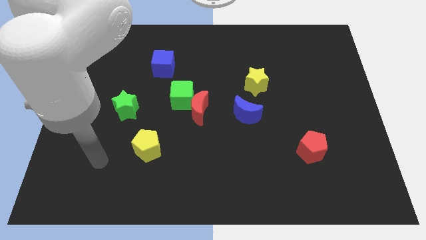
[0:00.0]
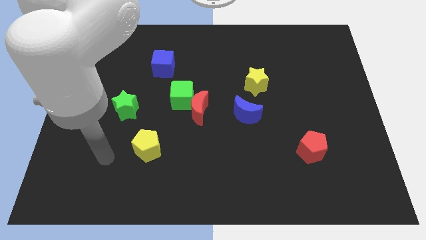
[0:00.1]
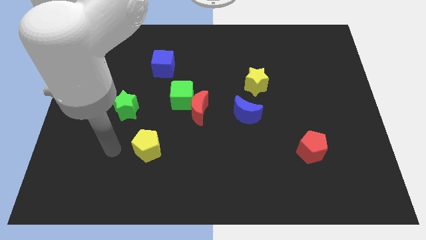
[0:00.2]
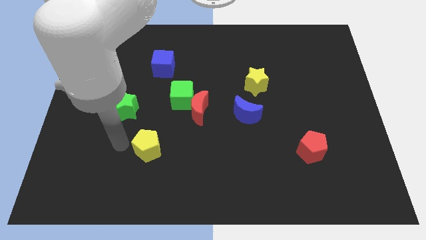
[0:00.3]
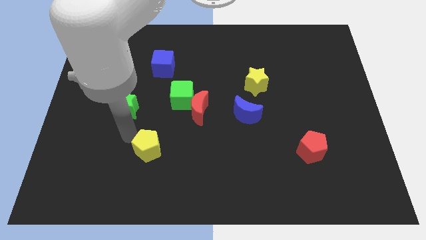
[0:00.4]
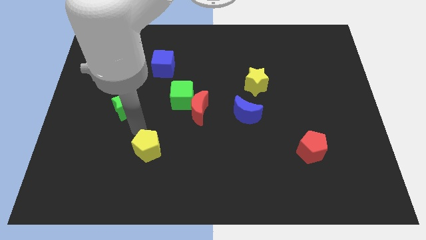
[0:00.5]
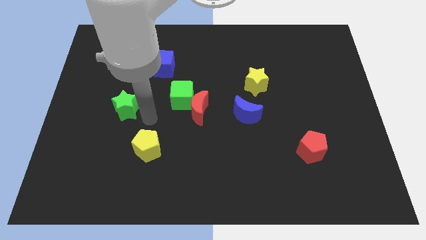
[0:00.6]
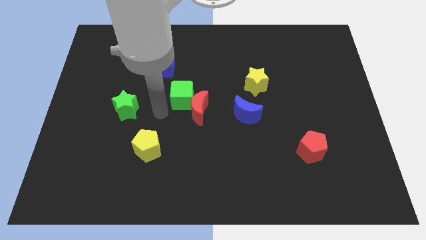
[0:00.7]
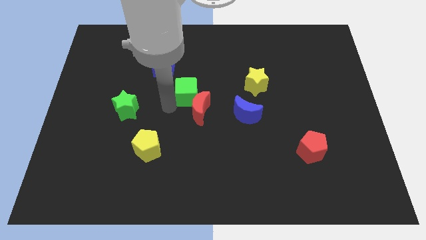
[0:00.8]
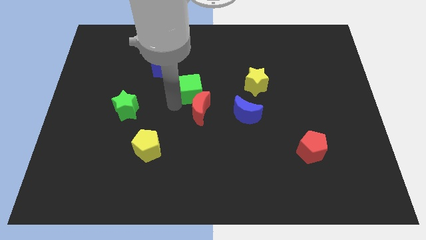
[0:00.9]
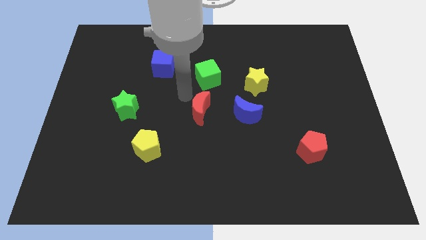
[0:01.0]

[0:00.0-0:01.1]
separate the red moon from the green cube

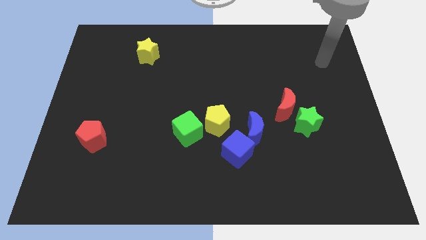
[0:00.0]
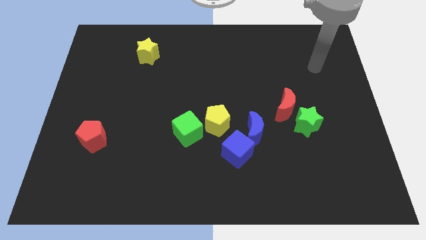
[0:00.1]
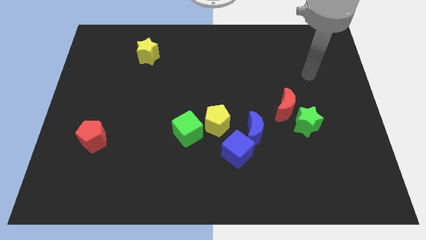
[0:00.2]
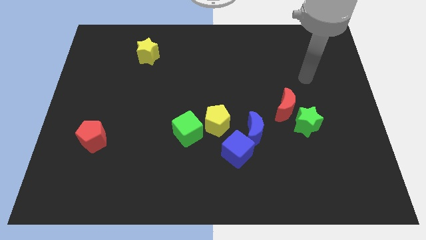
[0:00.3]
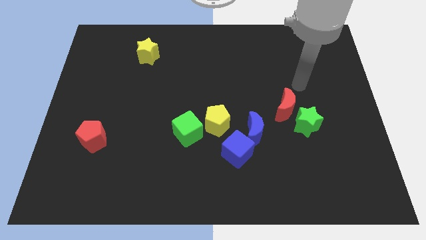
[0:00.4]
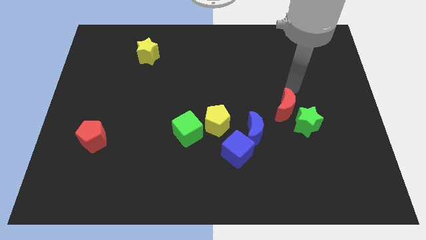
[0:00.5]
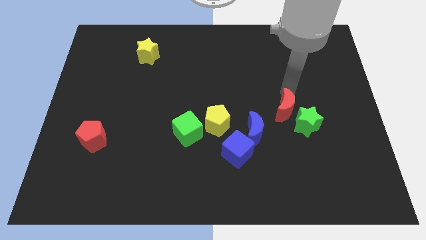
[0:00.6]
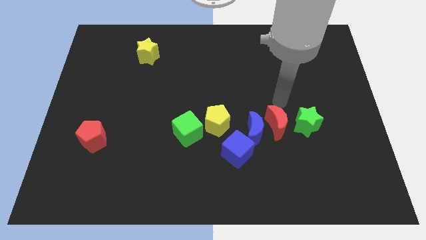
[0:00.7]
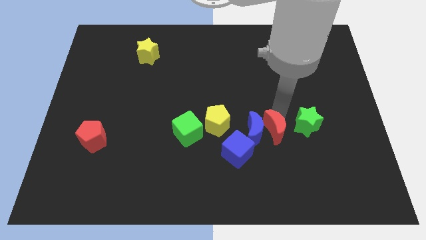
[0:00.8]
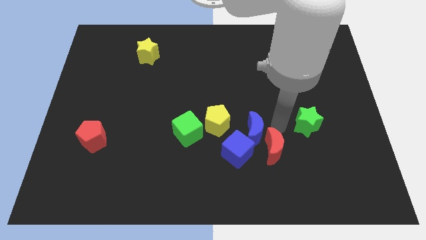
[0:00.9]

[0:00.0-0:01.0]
separate the green star from the red moon

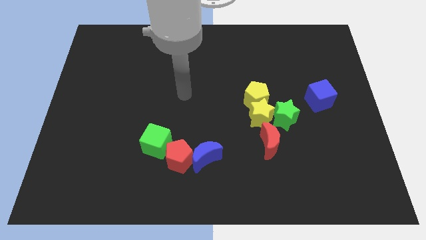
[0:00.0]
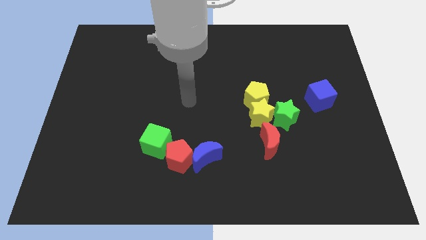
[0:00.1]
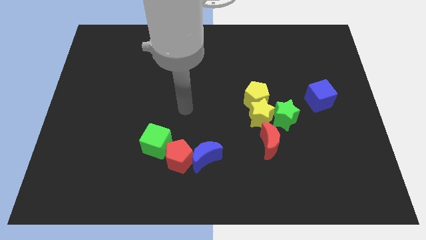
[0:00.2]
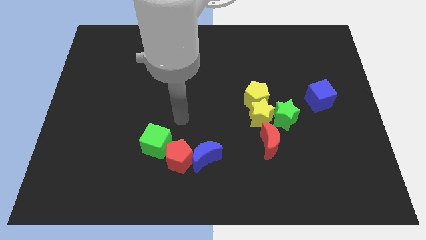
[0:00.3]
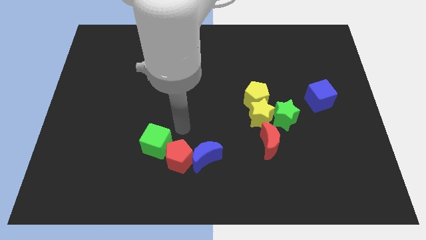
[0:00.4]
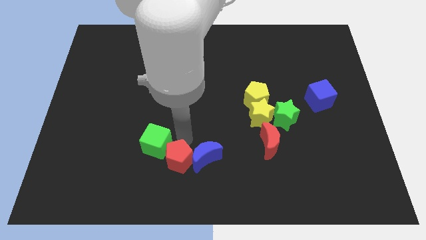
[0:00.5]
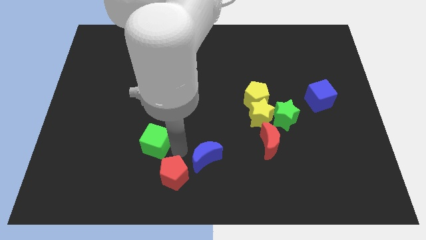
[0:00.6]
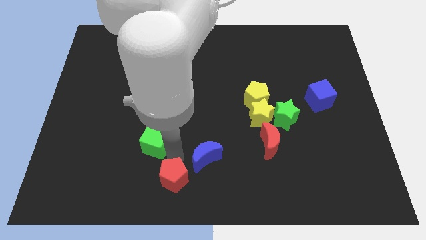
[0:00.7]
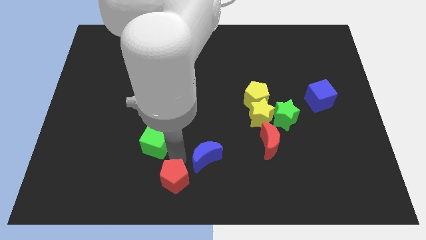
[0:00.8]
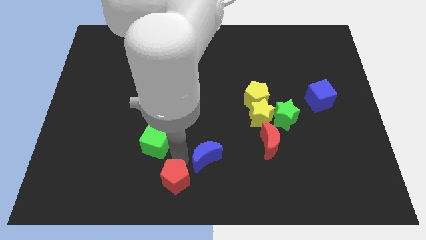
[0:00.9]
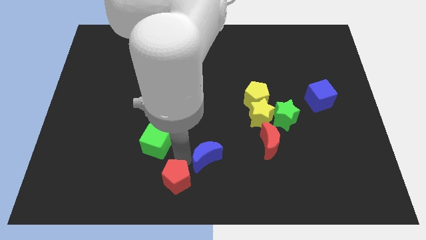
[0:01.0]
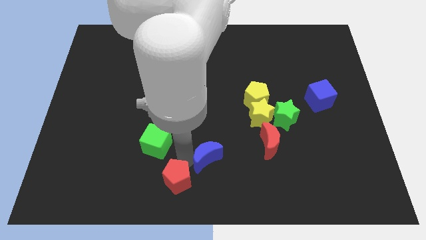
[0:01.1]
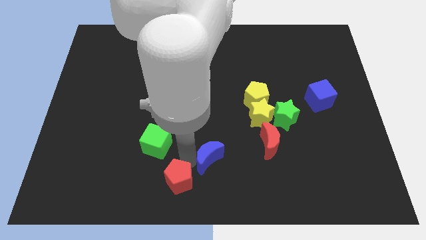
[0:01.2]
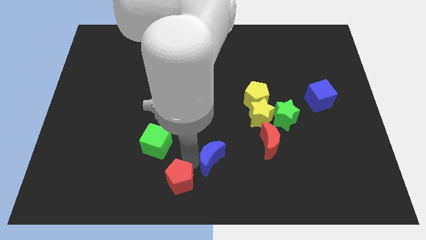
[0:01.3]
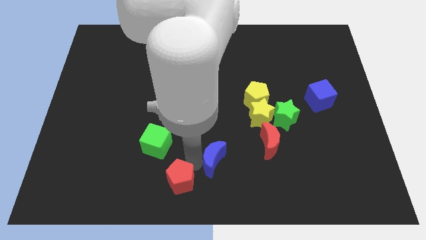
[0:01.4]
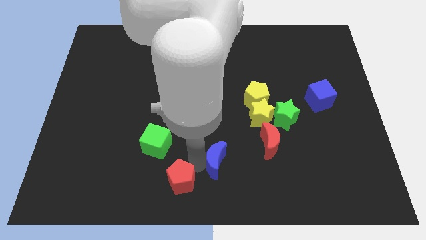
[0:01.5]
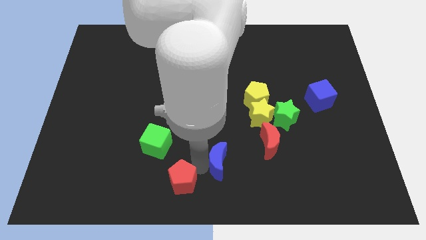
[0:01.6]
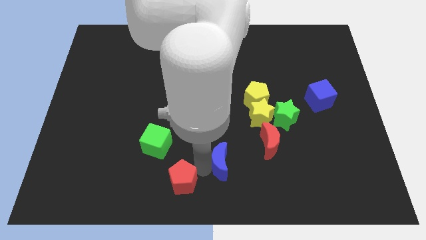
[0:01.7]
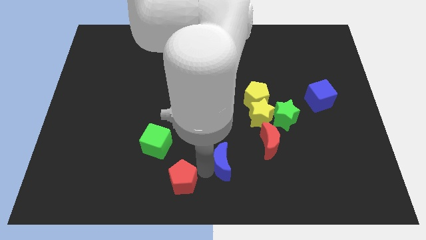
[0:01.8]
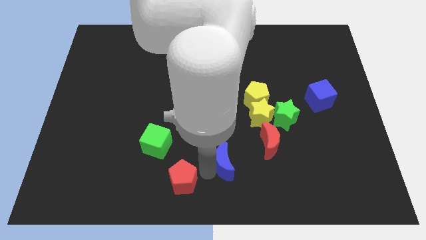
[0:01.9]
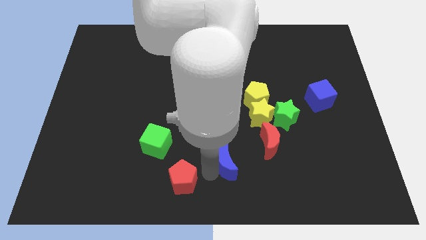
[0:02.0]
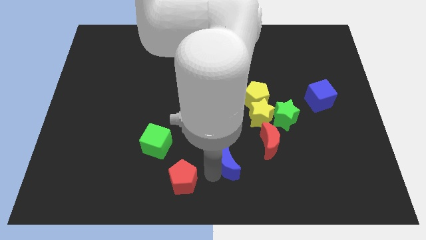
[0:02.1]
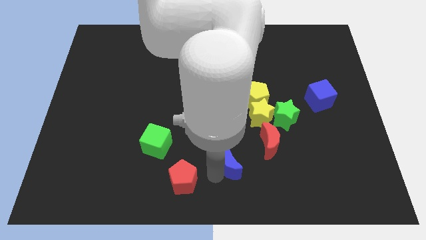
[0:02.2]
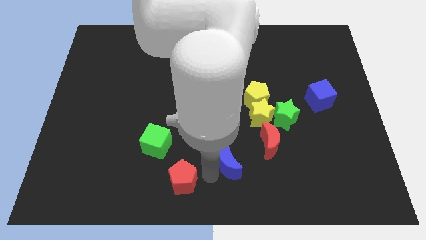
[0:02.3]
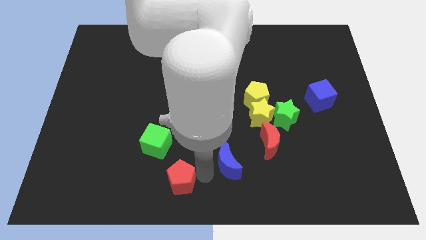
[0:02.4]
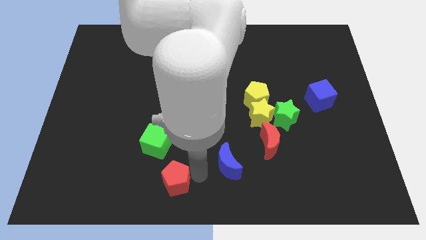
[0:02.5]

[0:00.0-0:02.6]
pull the blue moon apart from the red pentagon

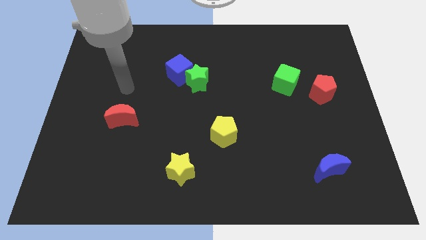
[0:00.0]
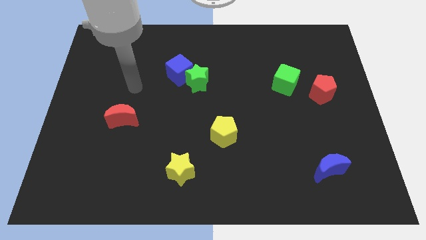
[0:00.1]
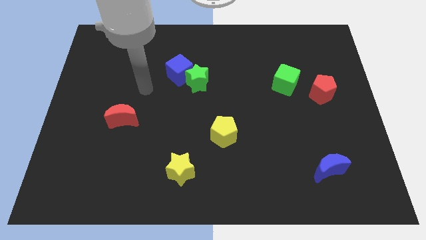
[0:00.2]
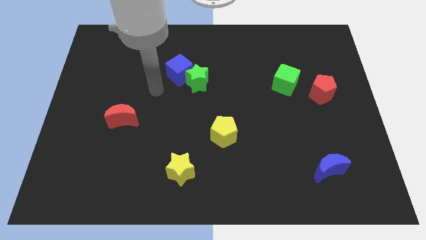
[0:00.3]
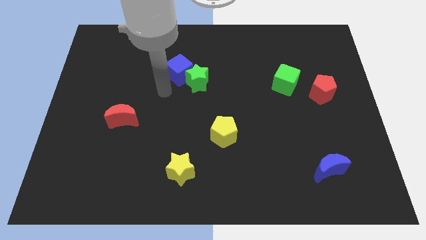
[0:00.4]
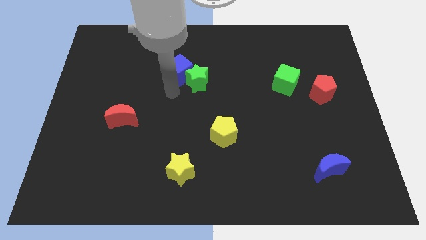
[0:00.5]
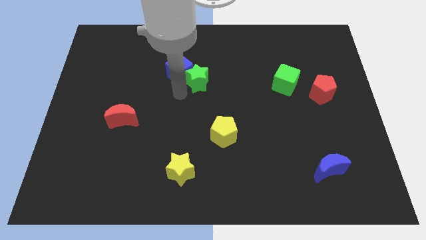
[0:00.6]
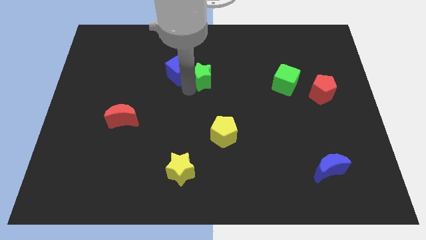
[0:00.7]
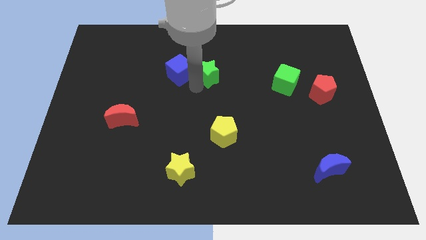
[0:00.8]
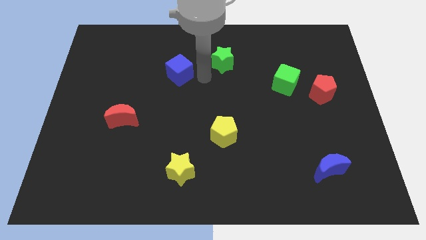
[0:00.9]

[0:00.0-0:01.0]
move the blue cube away from the green star

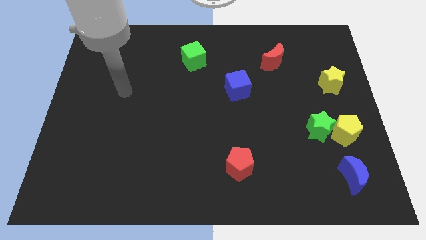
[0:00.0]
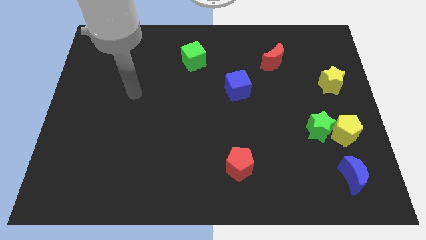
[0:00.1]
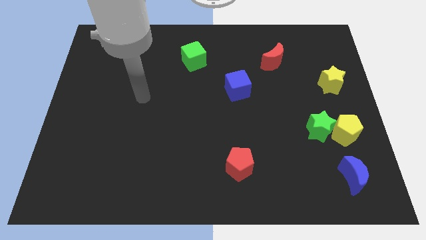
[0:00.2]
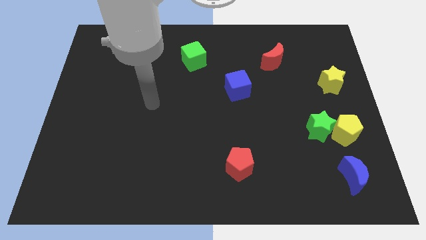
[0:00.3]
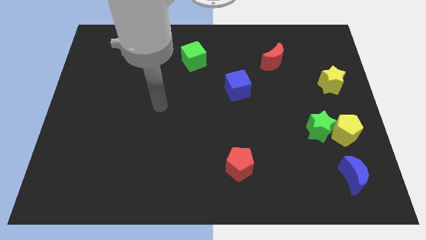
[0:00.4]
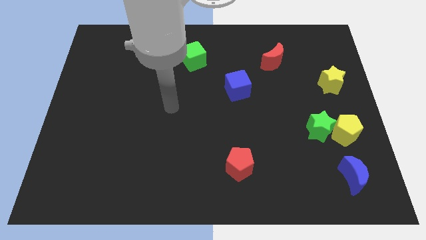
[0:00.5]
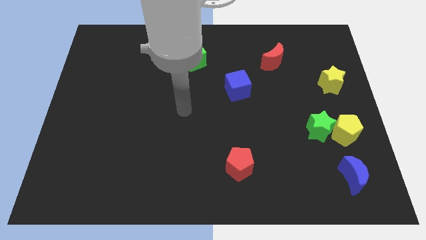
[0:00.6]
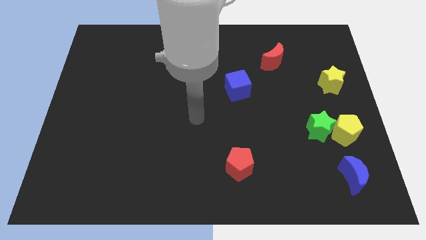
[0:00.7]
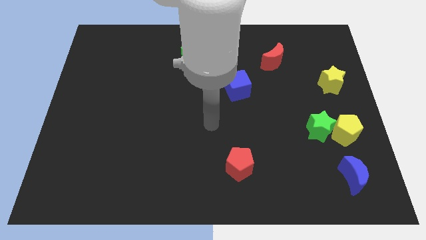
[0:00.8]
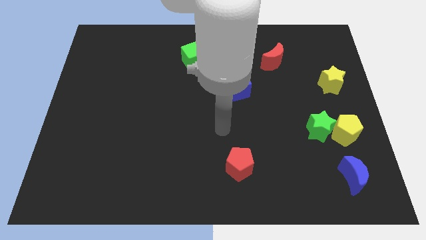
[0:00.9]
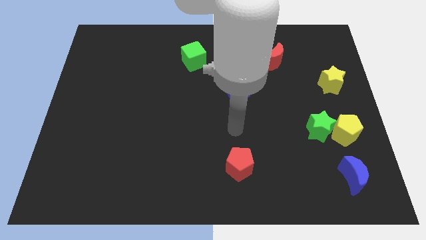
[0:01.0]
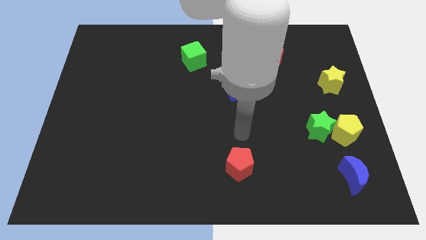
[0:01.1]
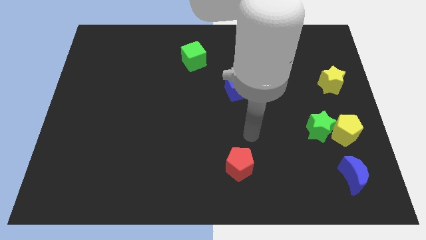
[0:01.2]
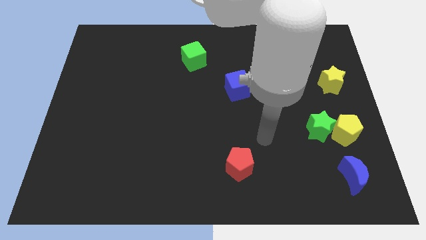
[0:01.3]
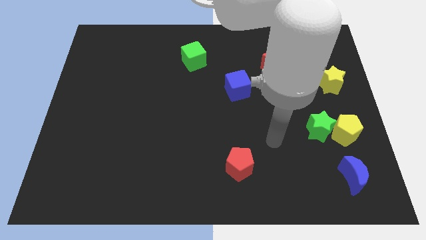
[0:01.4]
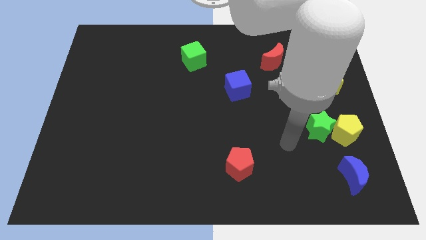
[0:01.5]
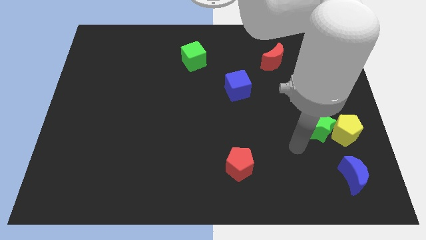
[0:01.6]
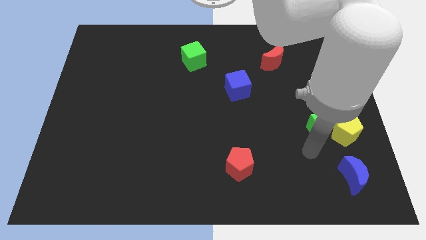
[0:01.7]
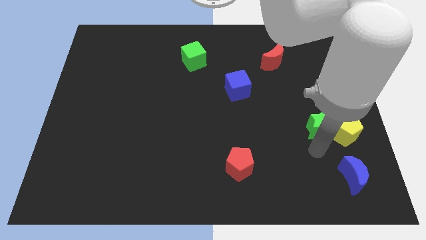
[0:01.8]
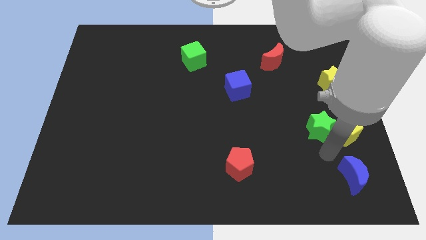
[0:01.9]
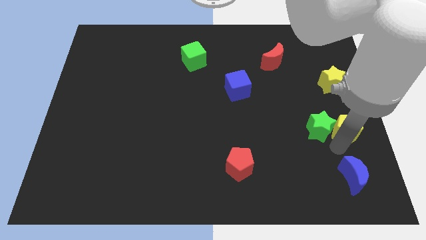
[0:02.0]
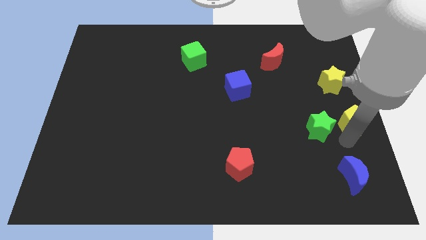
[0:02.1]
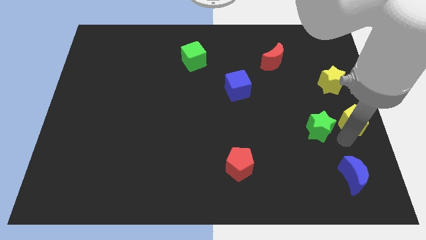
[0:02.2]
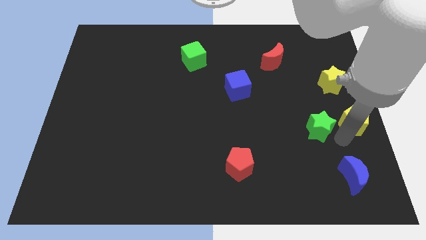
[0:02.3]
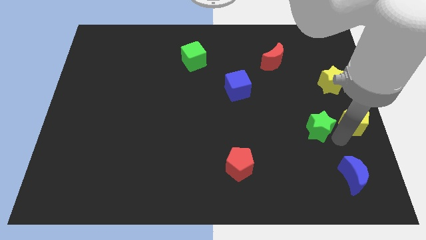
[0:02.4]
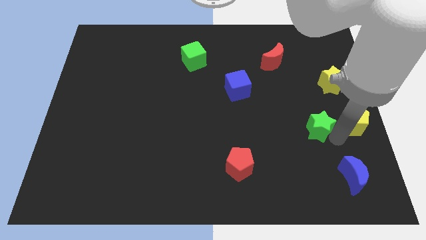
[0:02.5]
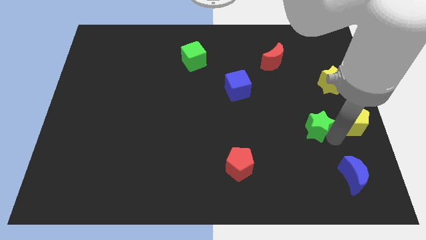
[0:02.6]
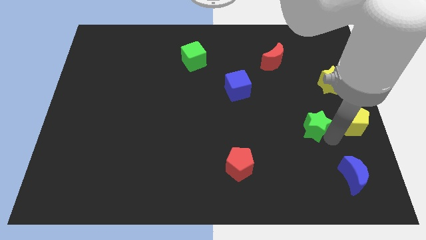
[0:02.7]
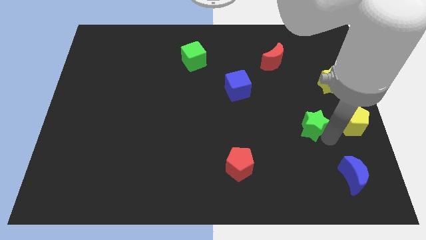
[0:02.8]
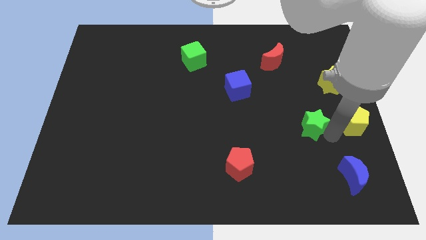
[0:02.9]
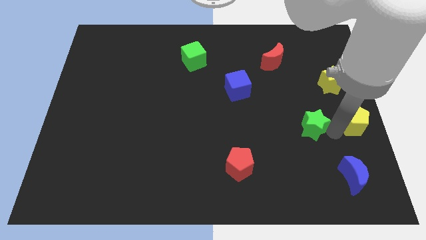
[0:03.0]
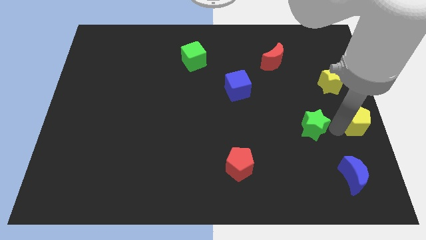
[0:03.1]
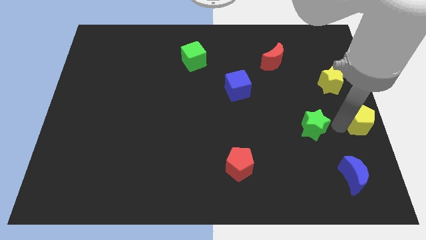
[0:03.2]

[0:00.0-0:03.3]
move the green star away from the yellow pentagon

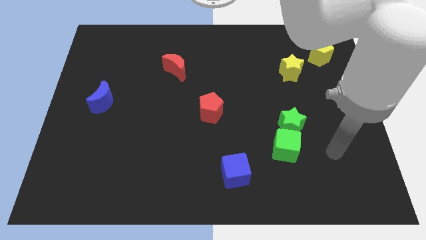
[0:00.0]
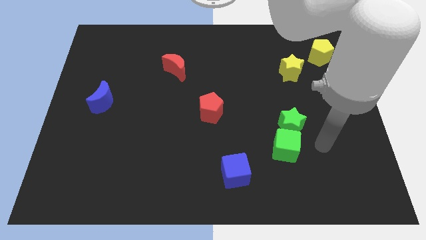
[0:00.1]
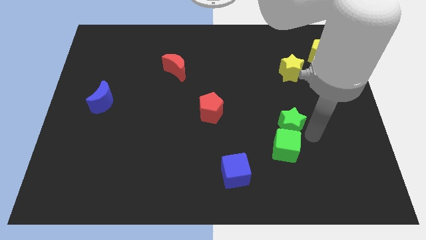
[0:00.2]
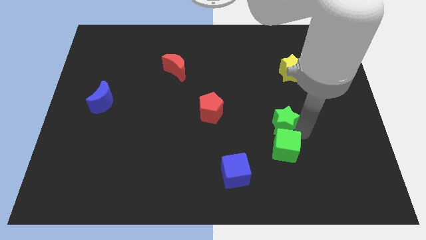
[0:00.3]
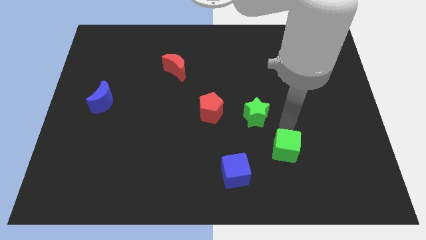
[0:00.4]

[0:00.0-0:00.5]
move the green cube away from the green star

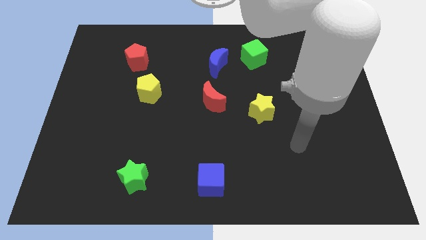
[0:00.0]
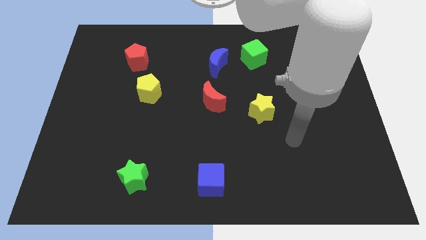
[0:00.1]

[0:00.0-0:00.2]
move the blue moon away from the green cube
